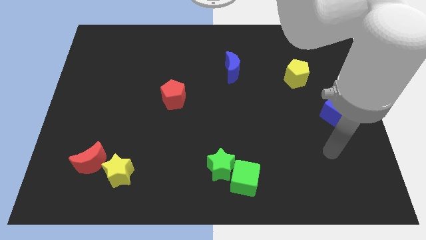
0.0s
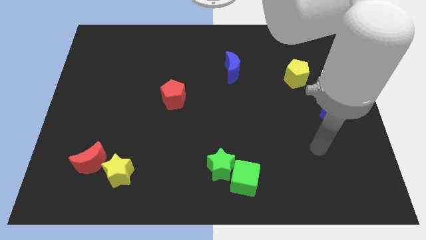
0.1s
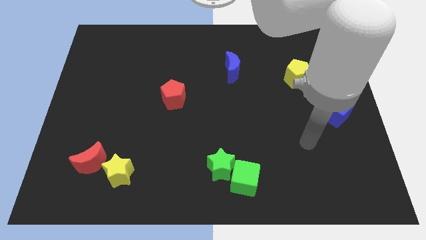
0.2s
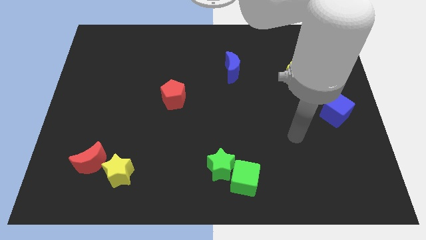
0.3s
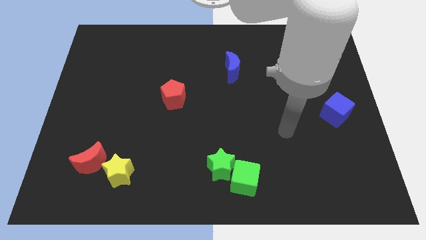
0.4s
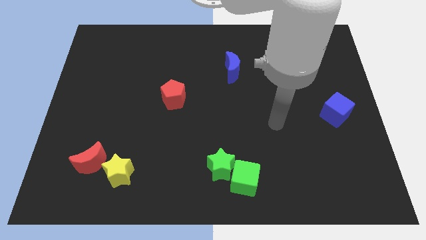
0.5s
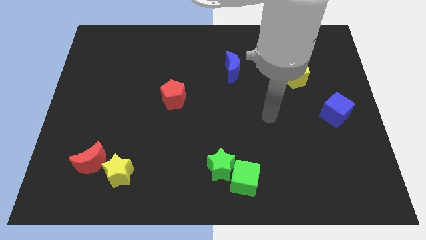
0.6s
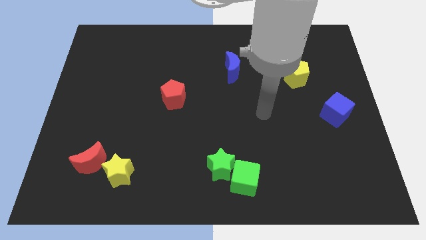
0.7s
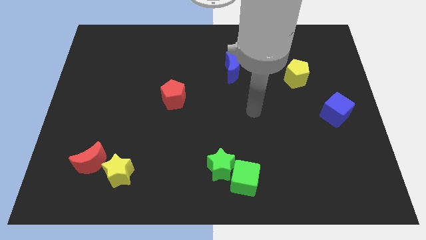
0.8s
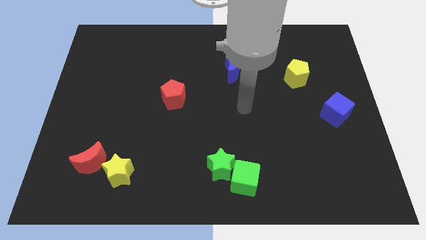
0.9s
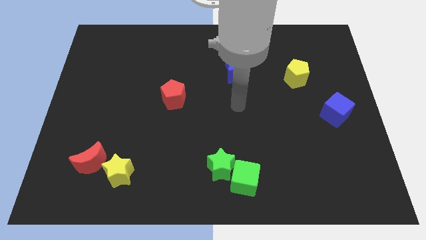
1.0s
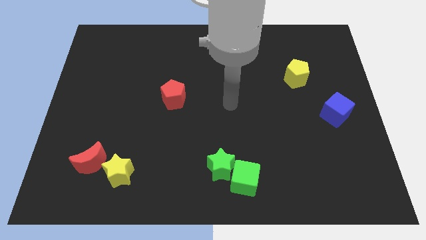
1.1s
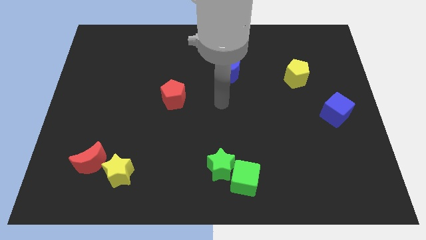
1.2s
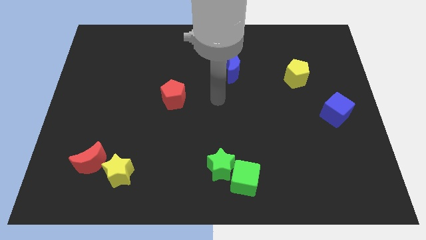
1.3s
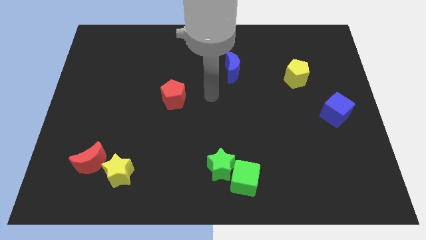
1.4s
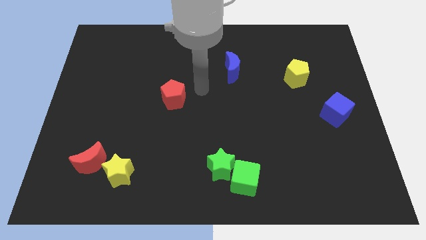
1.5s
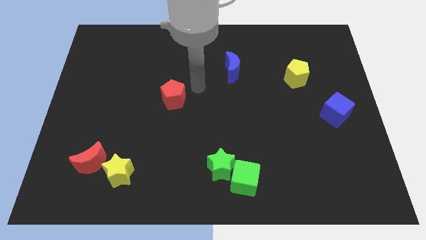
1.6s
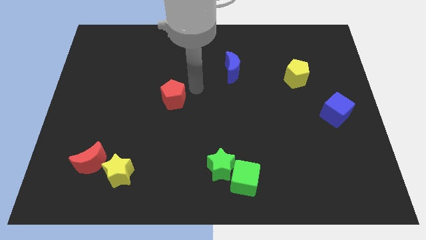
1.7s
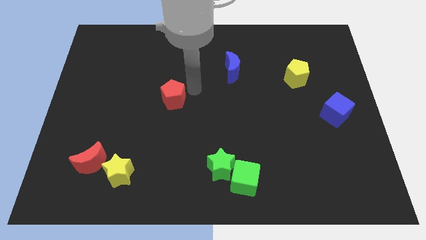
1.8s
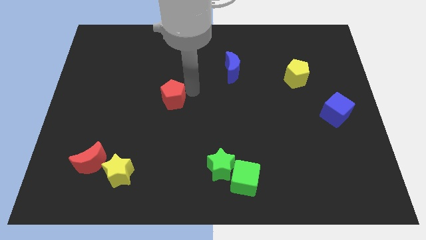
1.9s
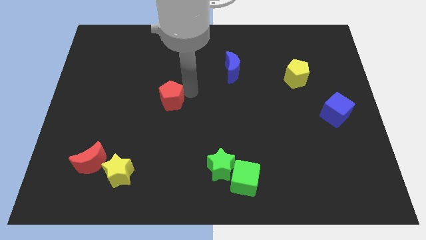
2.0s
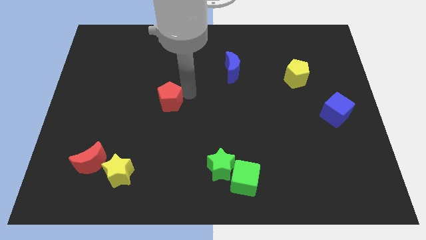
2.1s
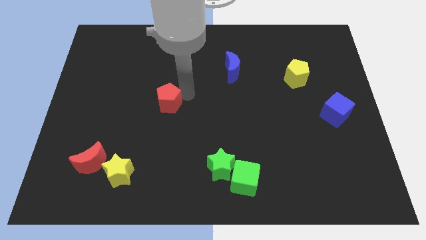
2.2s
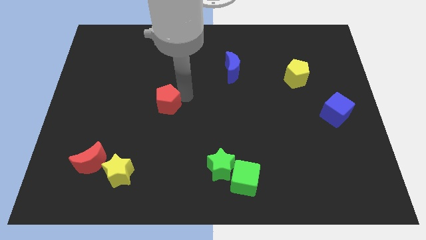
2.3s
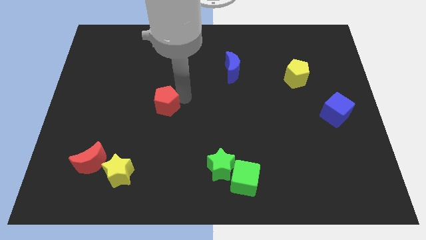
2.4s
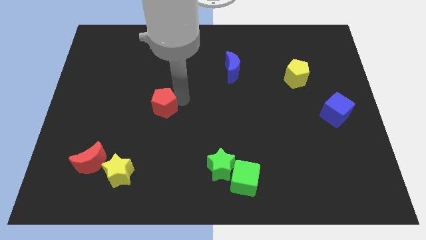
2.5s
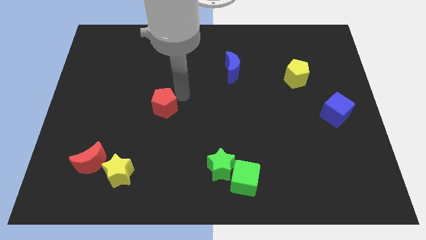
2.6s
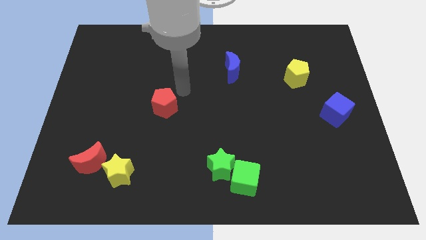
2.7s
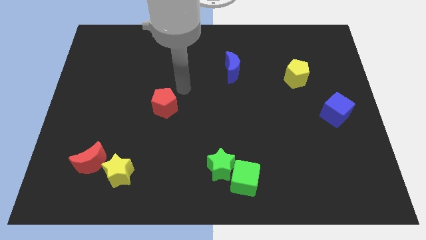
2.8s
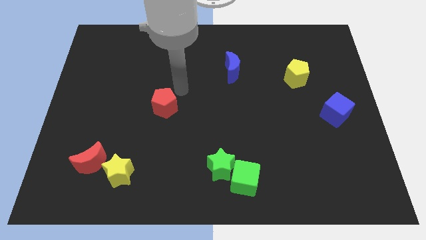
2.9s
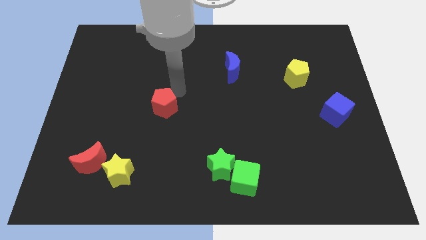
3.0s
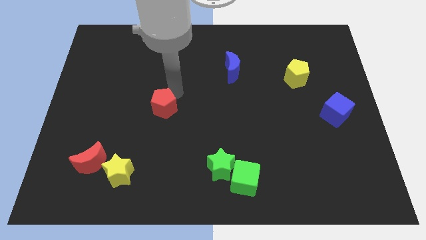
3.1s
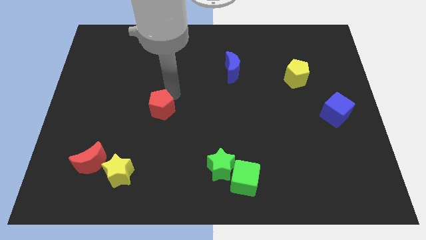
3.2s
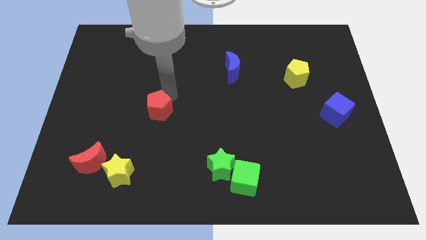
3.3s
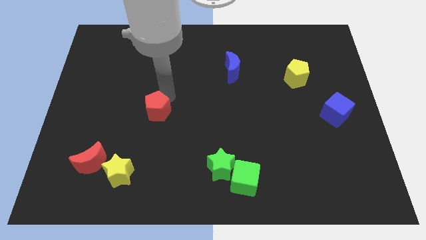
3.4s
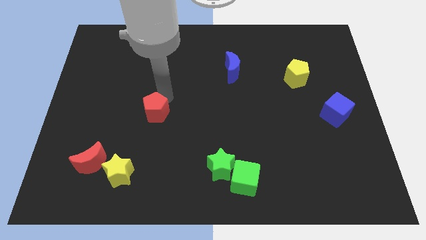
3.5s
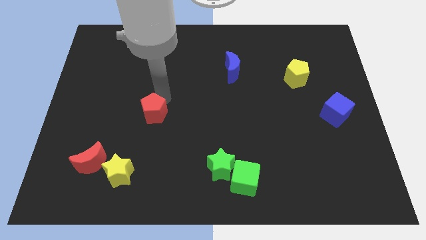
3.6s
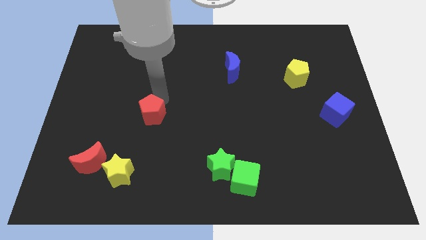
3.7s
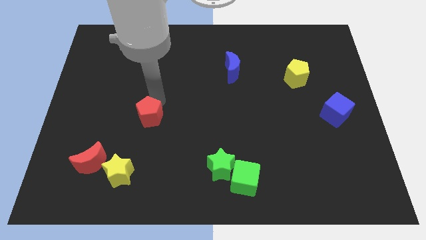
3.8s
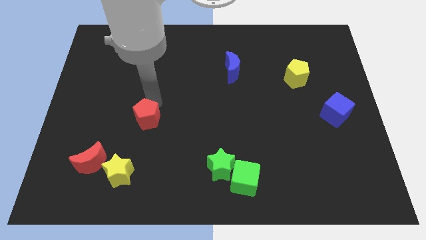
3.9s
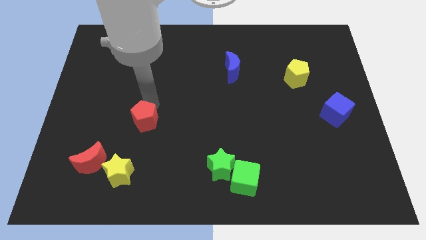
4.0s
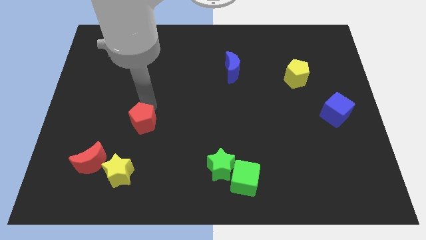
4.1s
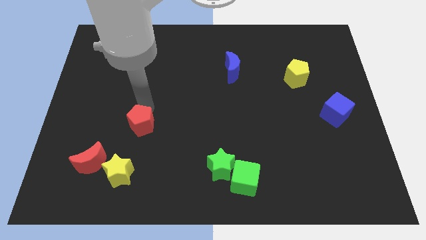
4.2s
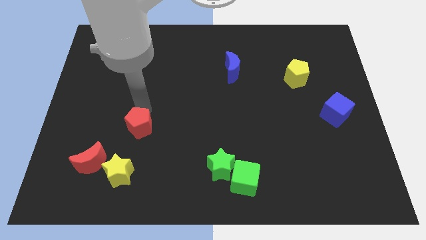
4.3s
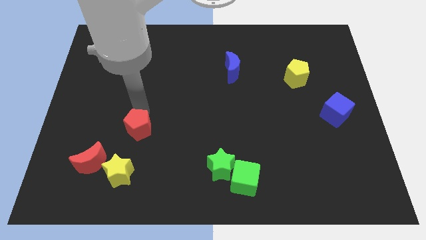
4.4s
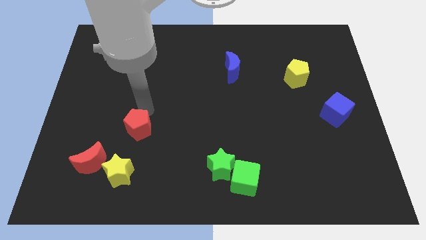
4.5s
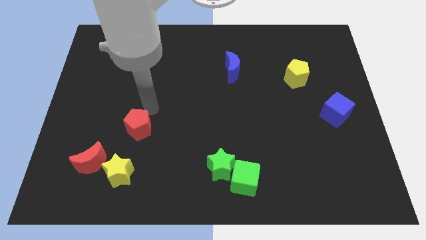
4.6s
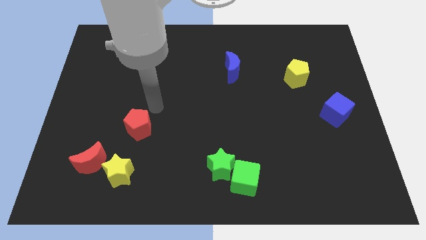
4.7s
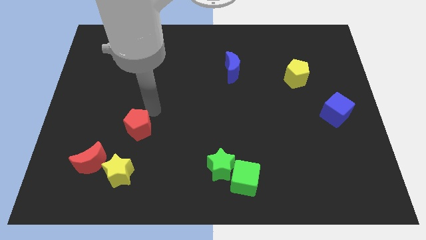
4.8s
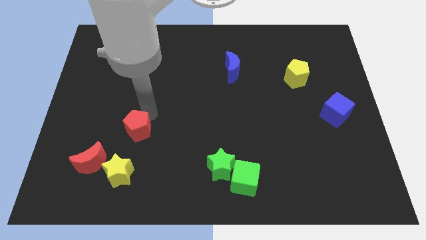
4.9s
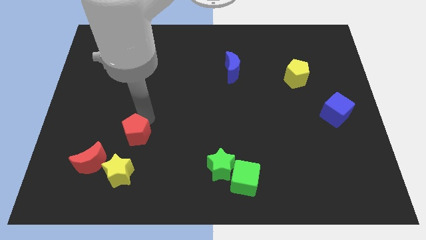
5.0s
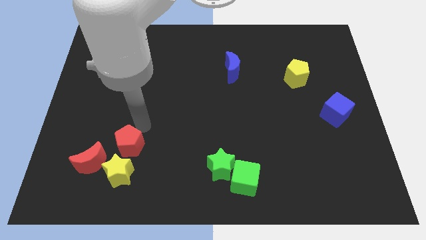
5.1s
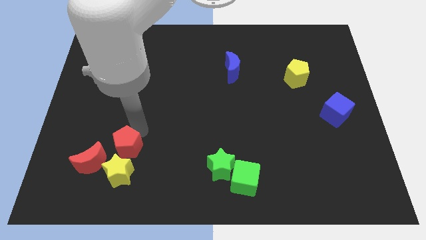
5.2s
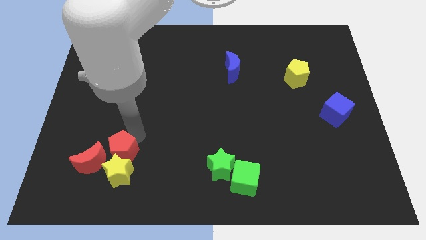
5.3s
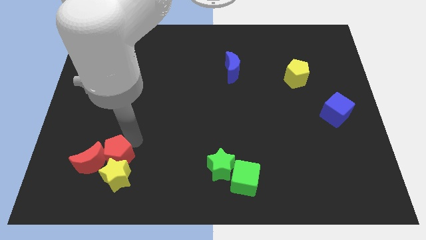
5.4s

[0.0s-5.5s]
slide the red pentagon towards the red moon

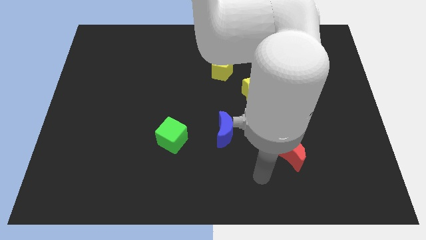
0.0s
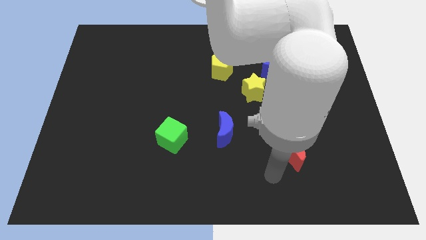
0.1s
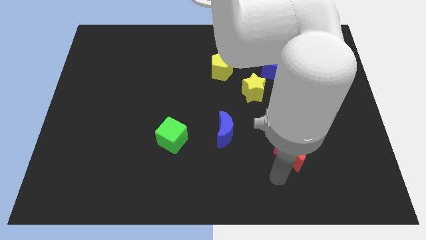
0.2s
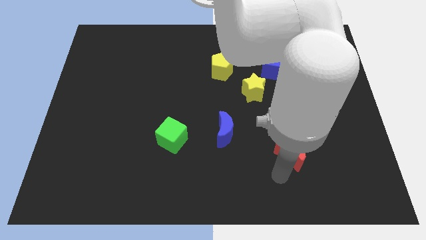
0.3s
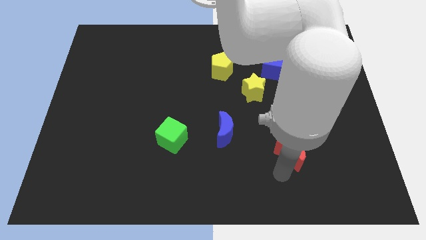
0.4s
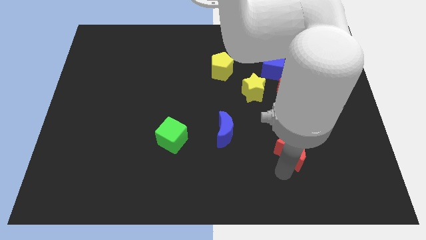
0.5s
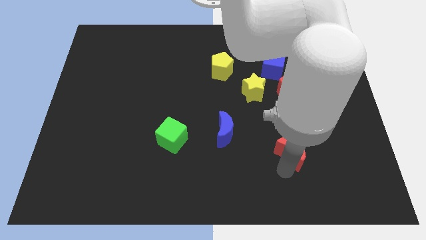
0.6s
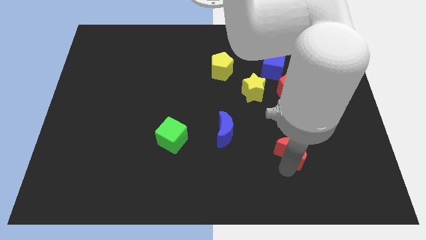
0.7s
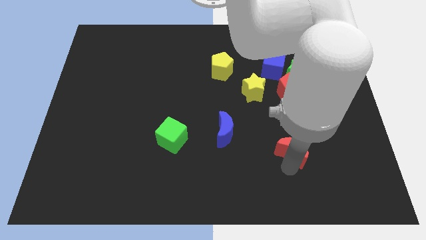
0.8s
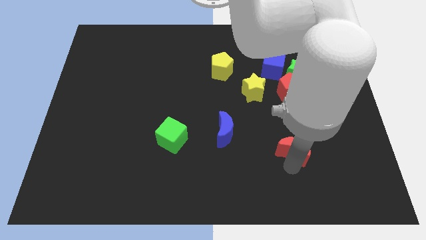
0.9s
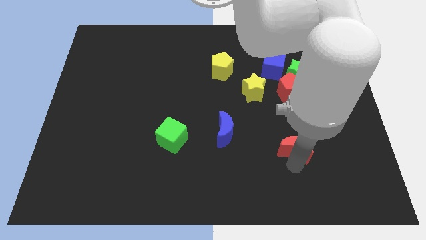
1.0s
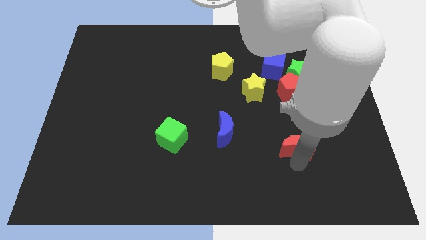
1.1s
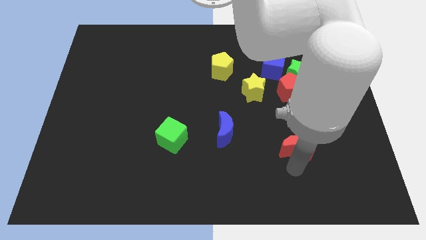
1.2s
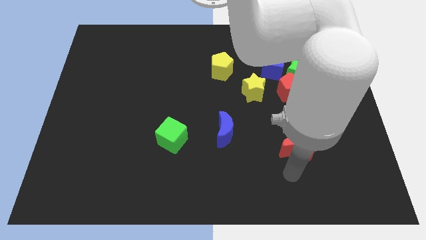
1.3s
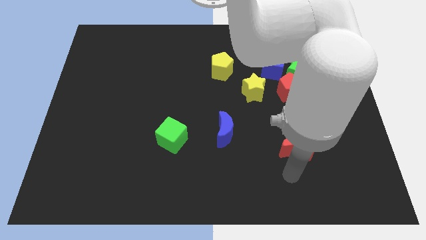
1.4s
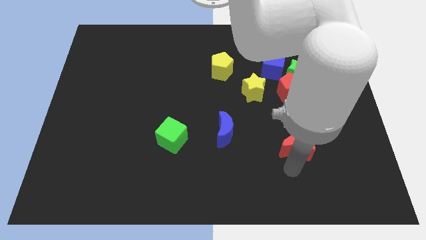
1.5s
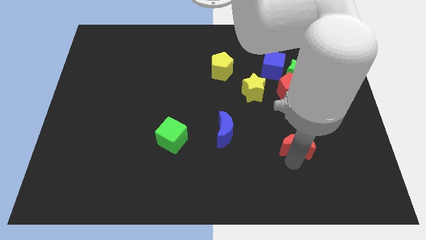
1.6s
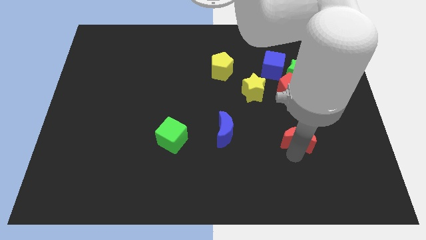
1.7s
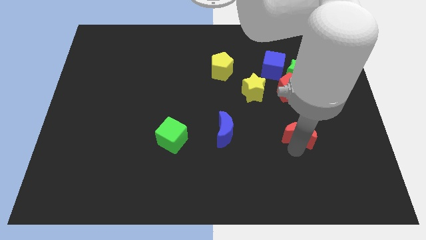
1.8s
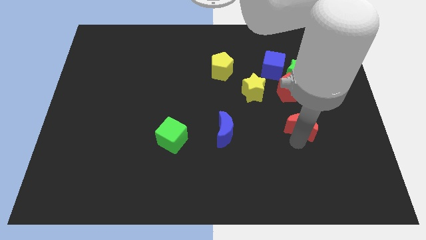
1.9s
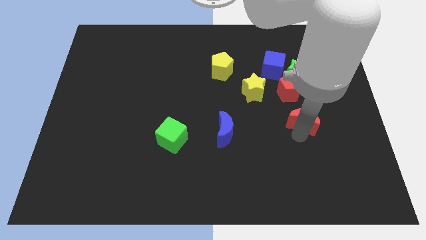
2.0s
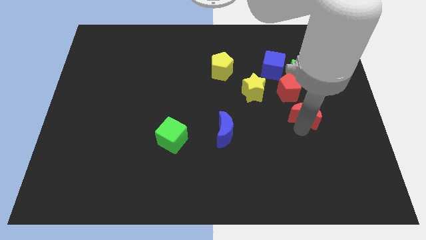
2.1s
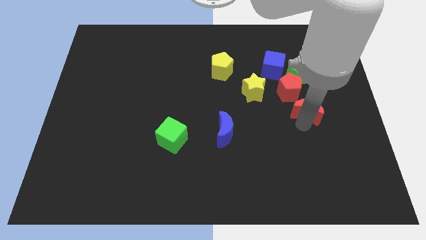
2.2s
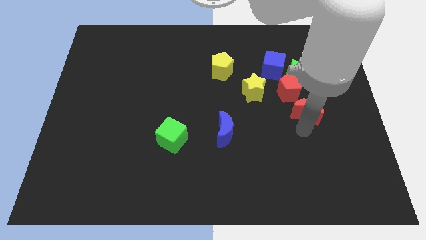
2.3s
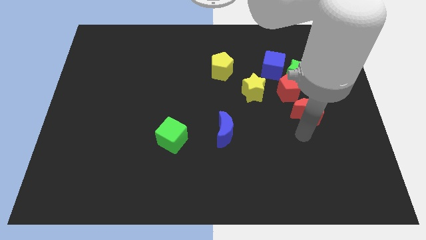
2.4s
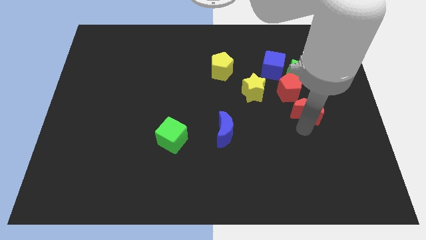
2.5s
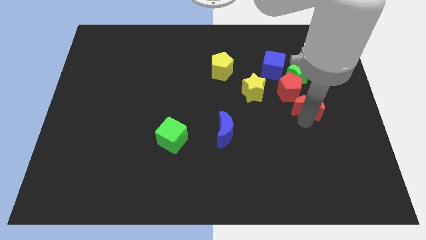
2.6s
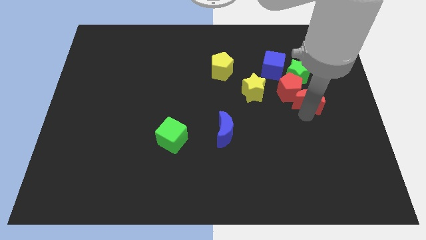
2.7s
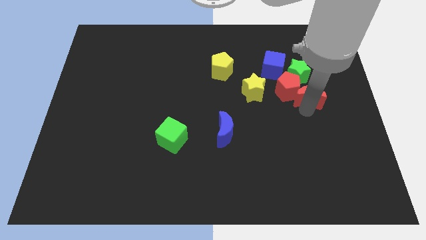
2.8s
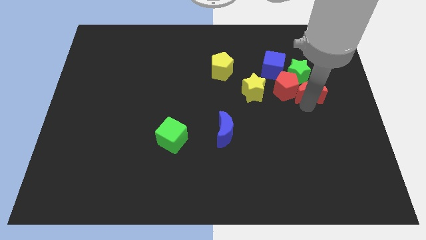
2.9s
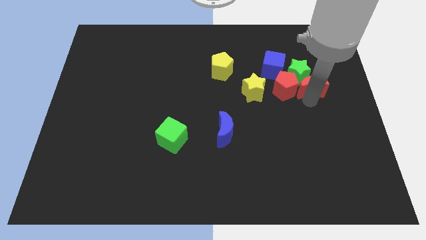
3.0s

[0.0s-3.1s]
put the red moon towards the green star
